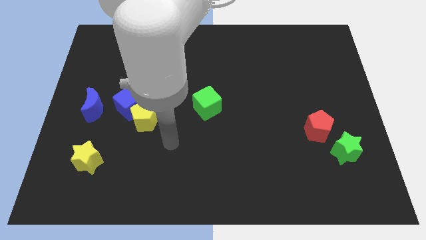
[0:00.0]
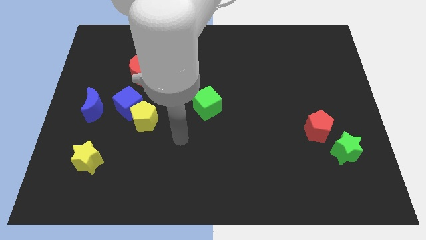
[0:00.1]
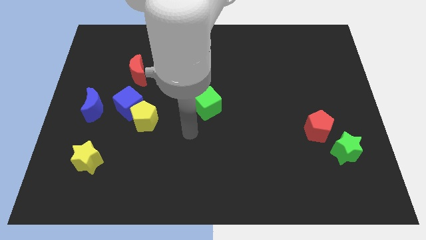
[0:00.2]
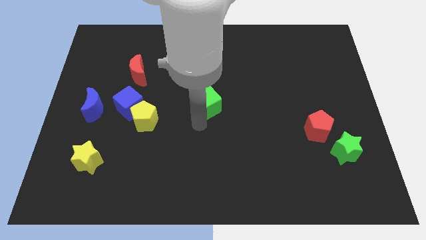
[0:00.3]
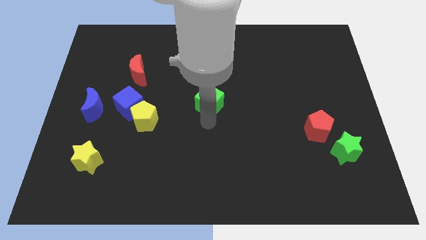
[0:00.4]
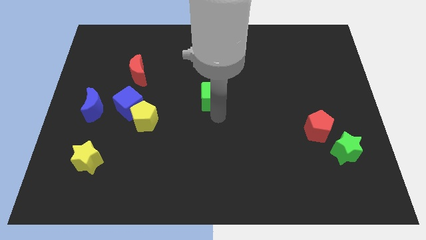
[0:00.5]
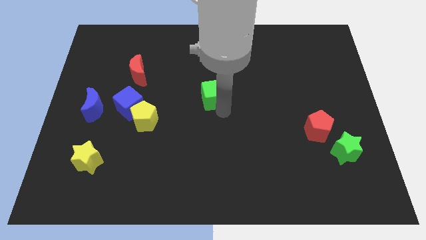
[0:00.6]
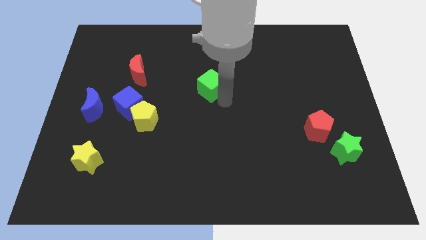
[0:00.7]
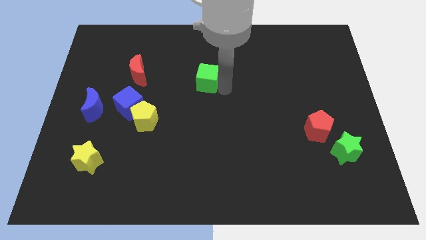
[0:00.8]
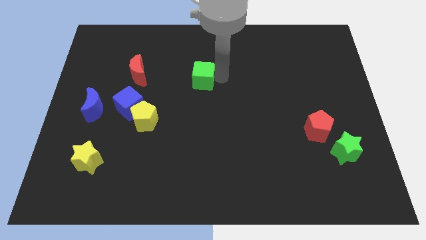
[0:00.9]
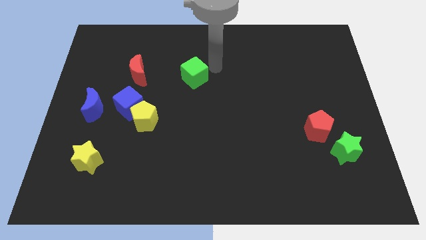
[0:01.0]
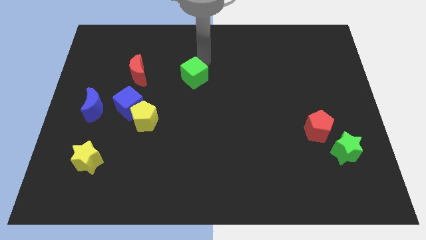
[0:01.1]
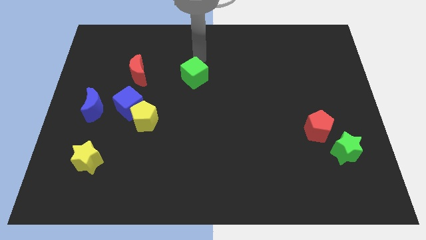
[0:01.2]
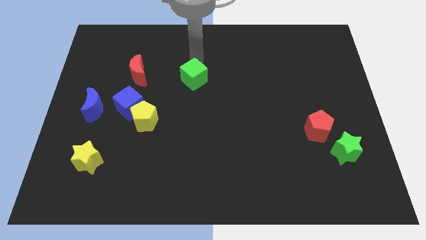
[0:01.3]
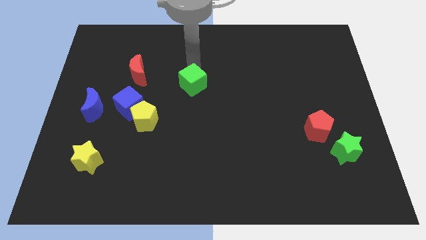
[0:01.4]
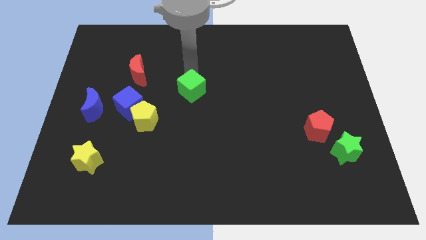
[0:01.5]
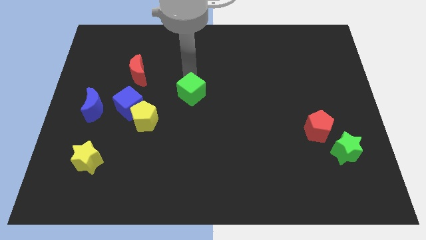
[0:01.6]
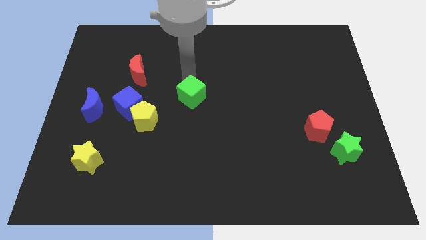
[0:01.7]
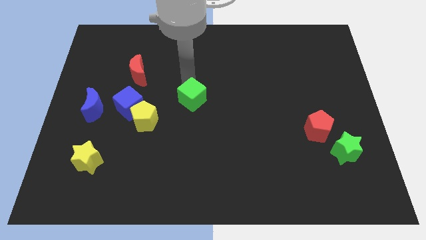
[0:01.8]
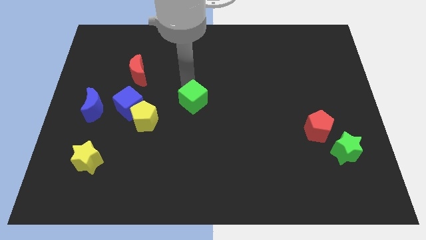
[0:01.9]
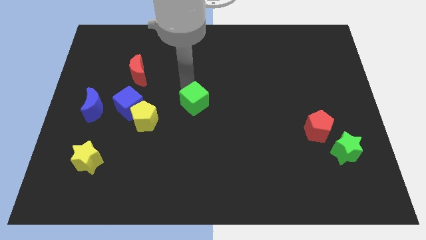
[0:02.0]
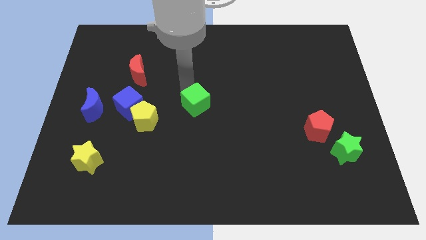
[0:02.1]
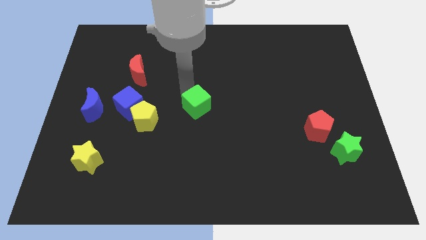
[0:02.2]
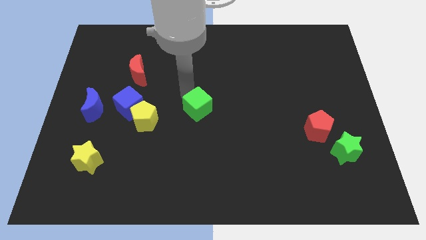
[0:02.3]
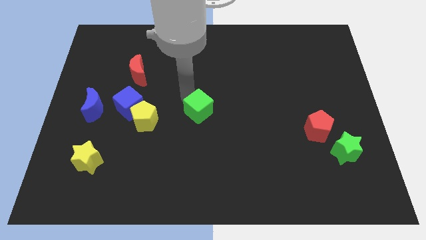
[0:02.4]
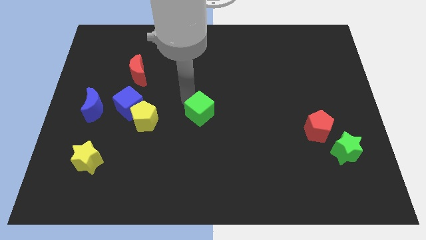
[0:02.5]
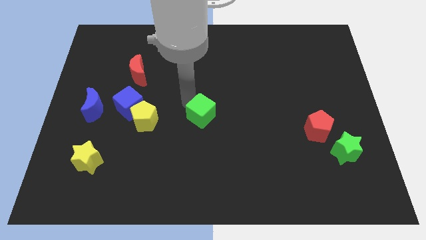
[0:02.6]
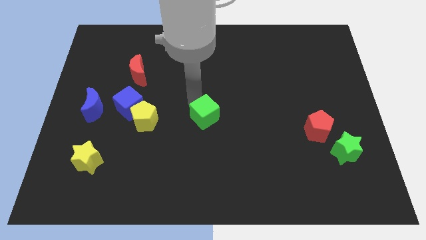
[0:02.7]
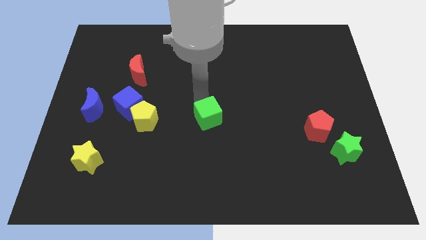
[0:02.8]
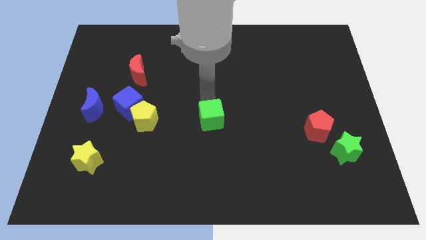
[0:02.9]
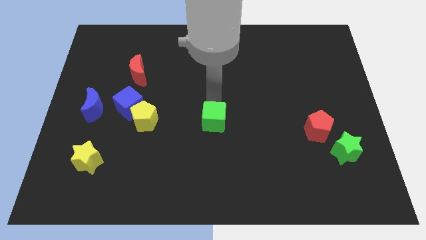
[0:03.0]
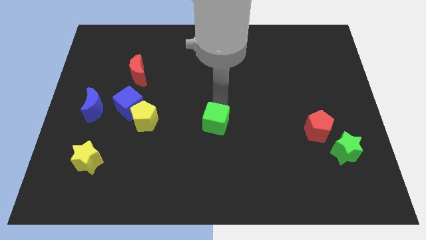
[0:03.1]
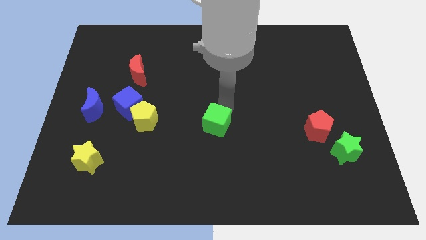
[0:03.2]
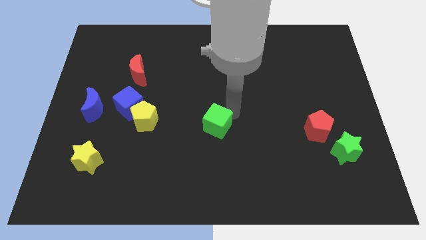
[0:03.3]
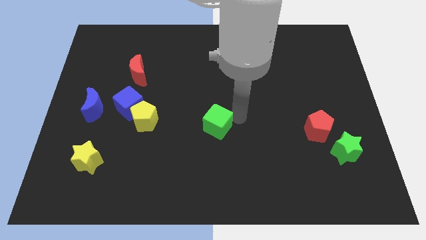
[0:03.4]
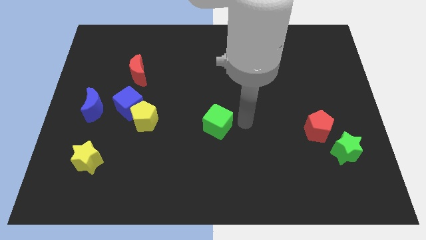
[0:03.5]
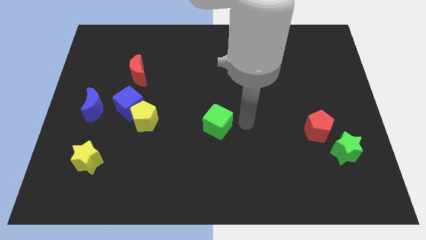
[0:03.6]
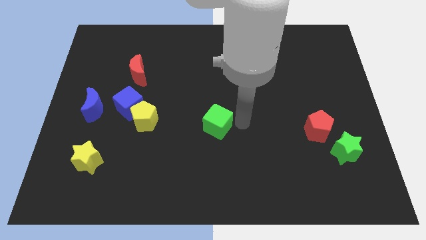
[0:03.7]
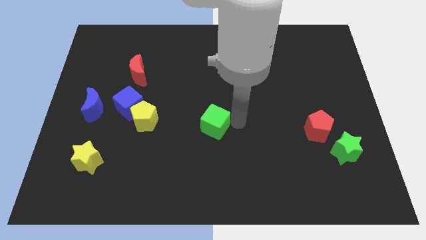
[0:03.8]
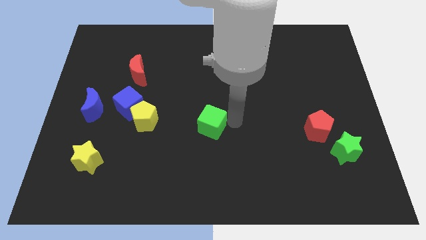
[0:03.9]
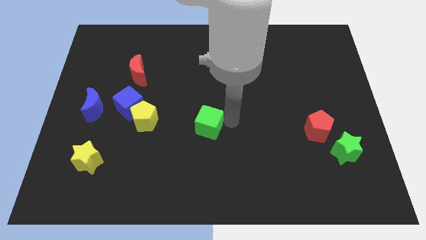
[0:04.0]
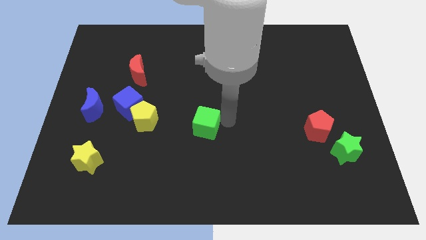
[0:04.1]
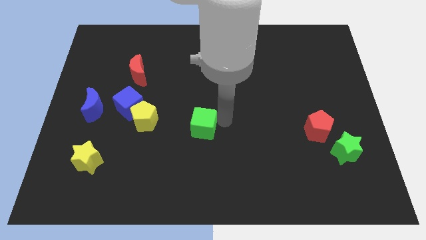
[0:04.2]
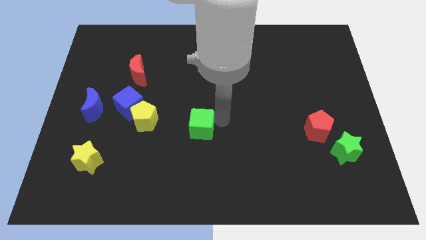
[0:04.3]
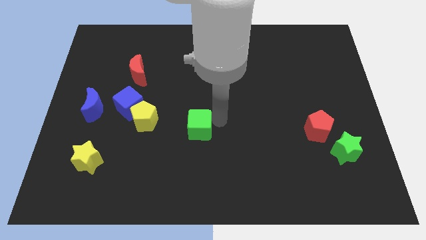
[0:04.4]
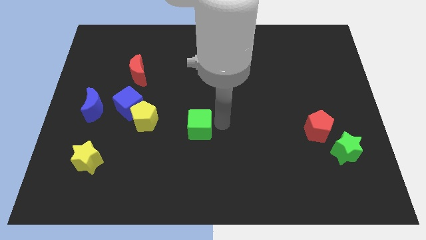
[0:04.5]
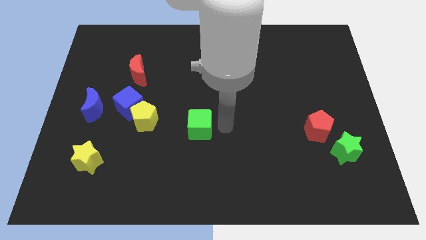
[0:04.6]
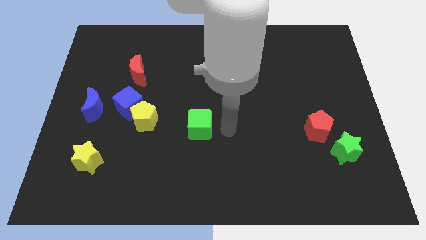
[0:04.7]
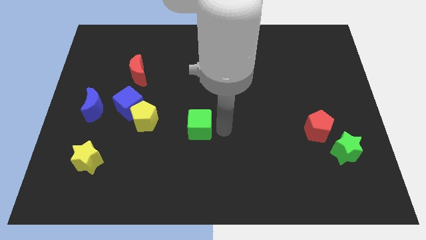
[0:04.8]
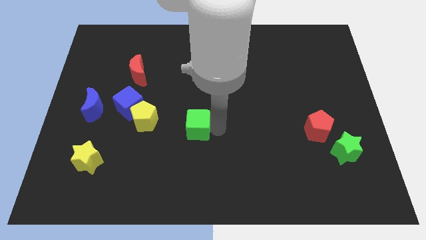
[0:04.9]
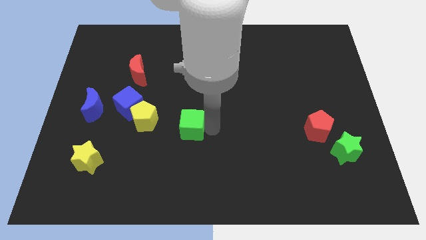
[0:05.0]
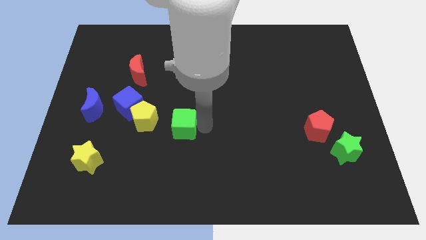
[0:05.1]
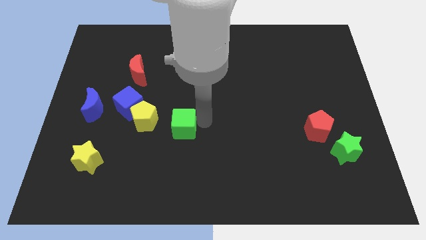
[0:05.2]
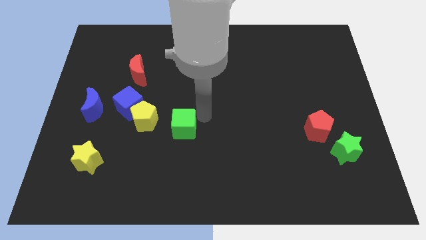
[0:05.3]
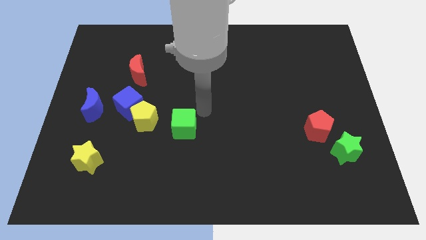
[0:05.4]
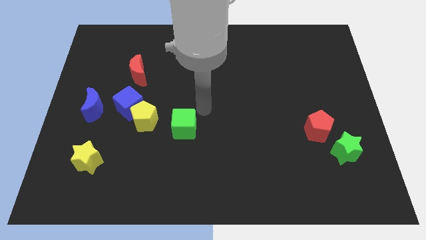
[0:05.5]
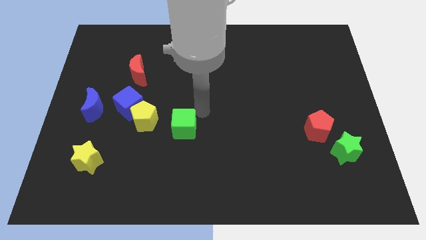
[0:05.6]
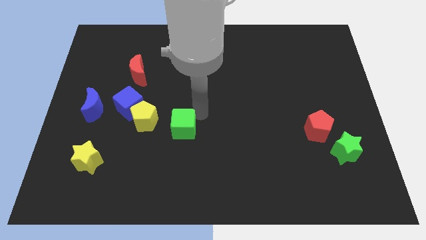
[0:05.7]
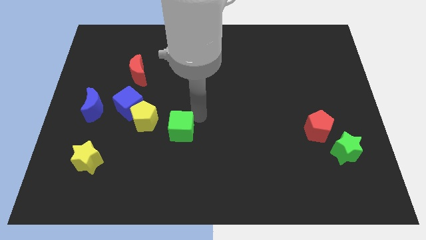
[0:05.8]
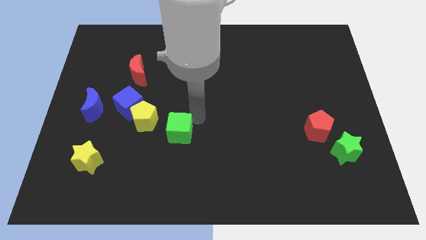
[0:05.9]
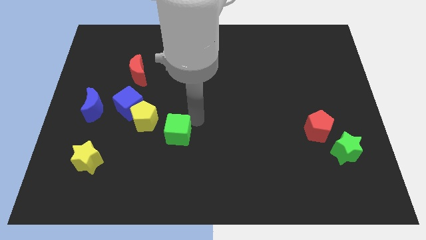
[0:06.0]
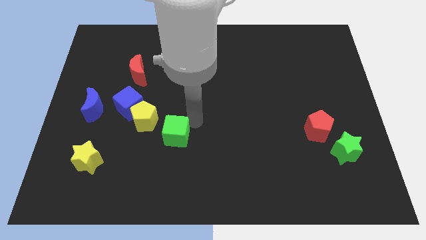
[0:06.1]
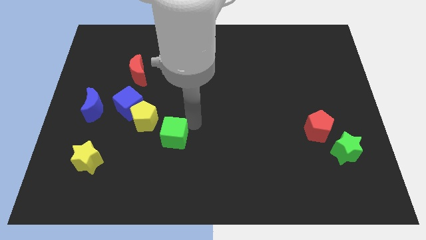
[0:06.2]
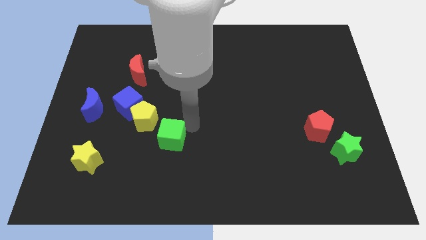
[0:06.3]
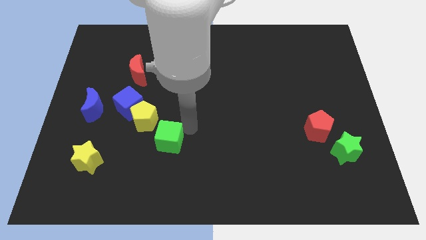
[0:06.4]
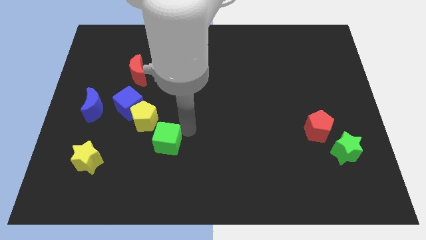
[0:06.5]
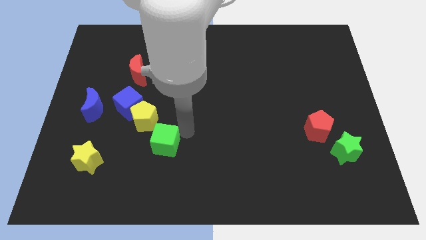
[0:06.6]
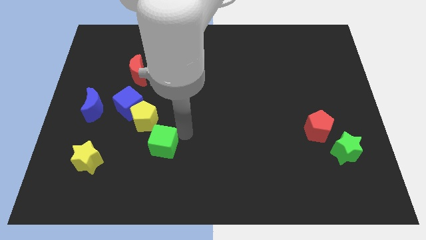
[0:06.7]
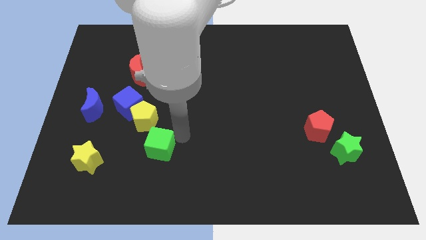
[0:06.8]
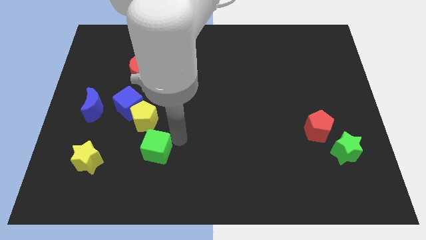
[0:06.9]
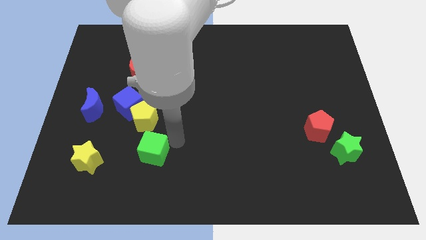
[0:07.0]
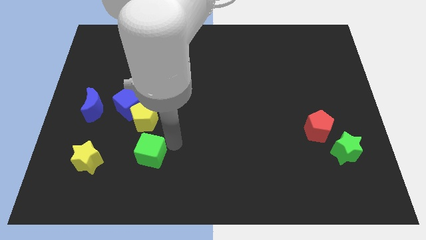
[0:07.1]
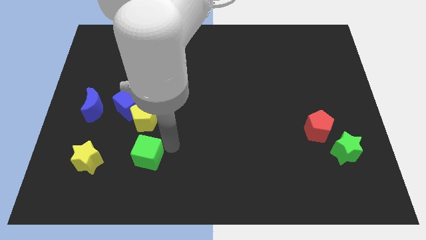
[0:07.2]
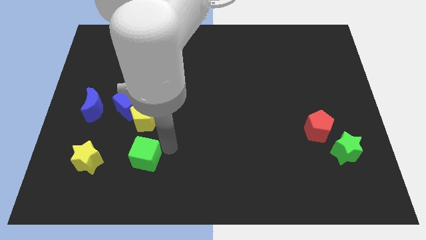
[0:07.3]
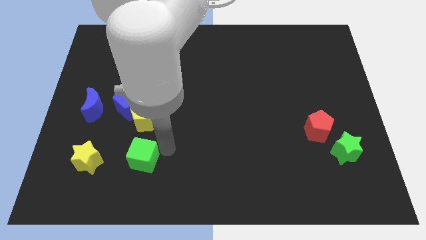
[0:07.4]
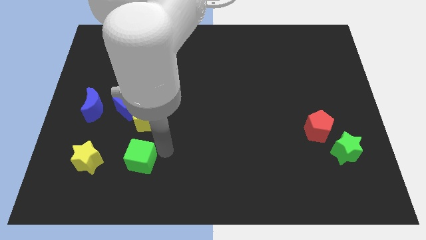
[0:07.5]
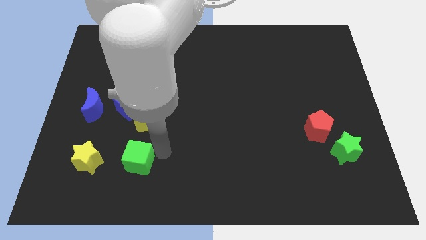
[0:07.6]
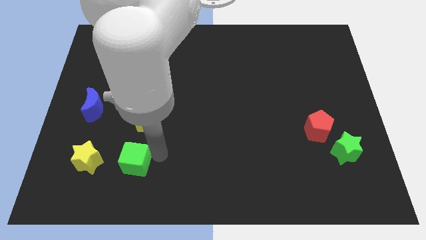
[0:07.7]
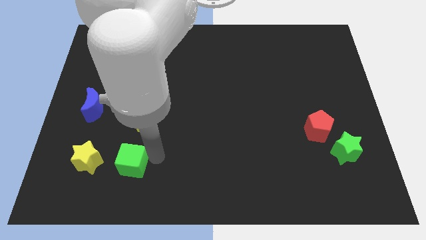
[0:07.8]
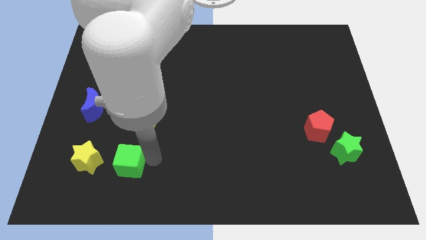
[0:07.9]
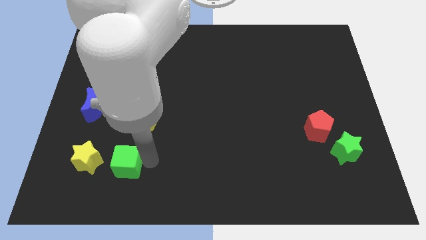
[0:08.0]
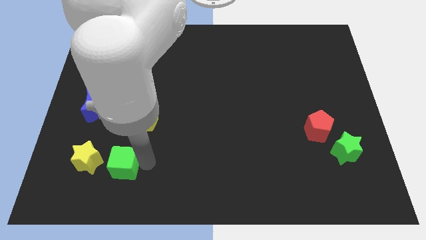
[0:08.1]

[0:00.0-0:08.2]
put the green cube to the bottom right side of the yellow star
